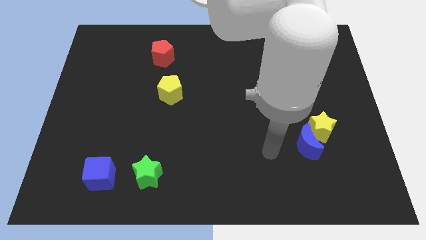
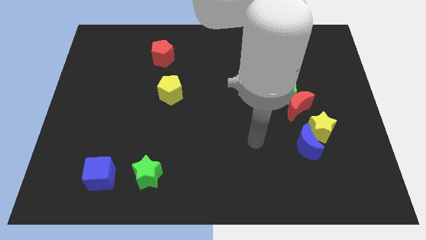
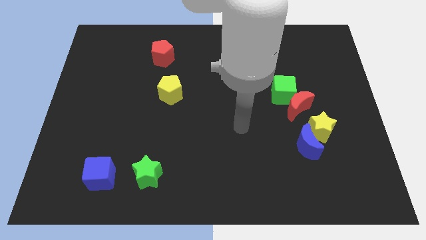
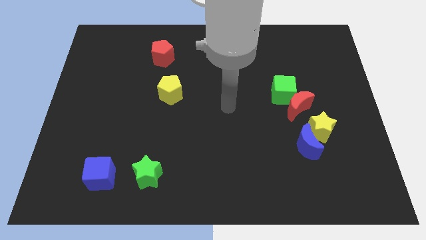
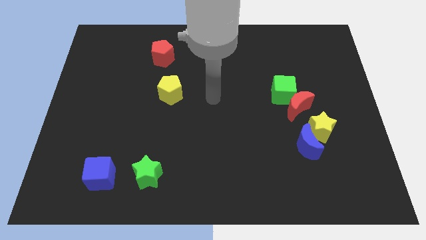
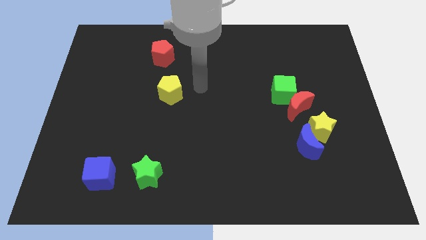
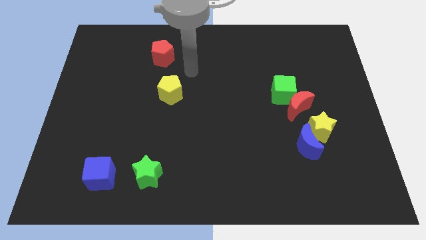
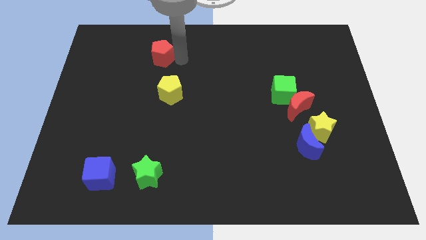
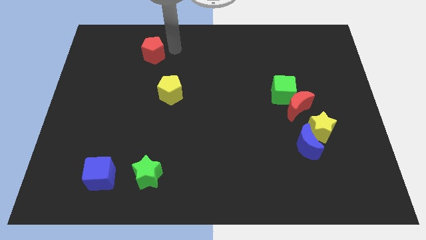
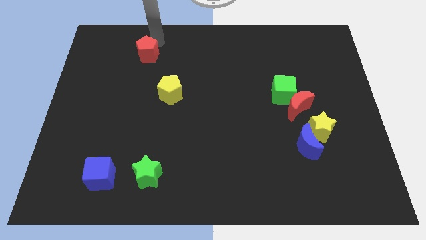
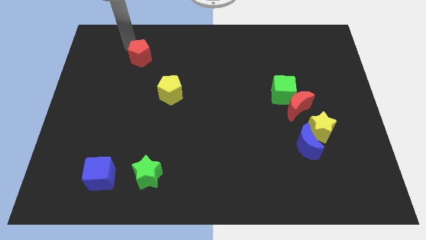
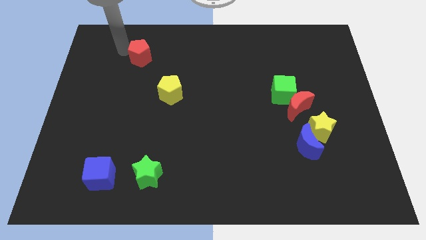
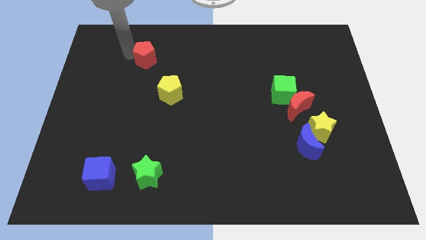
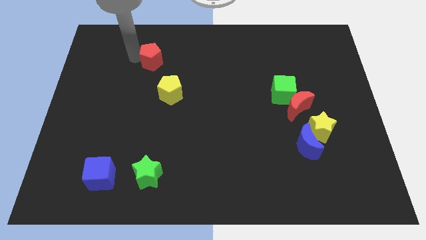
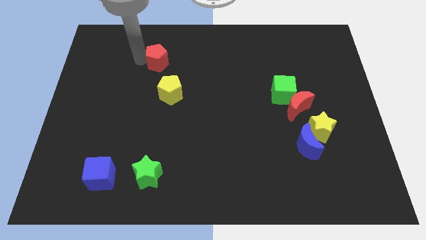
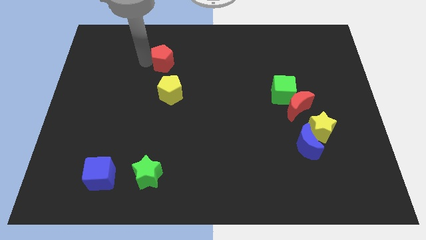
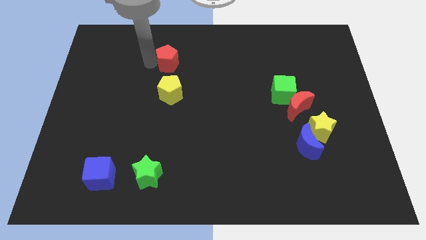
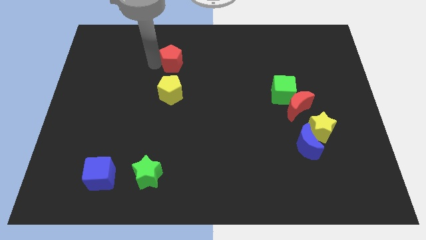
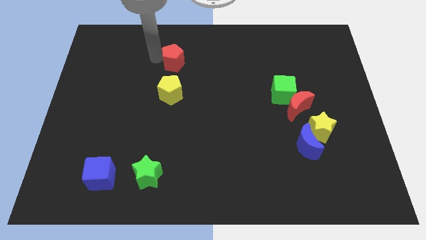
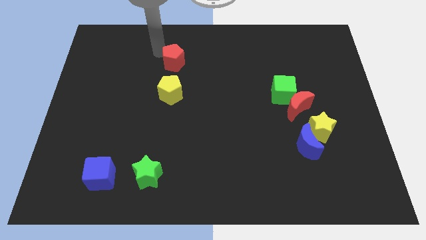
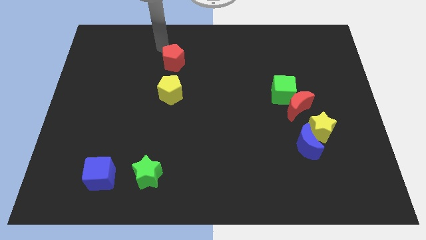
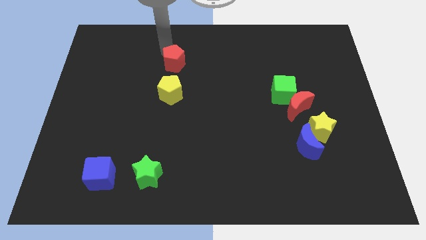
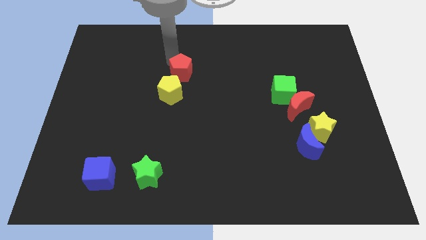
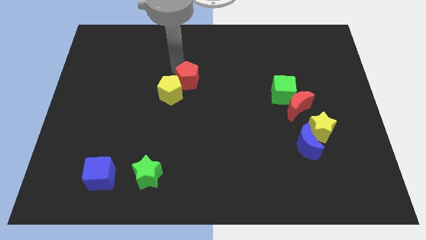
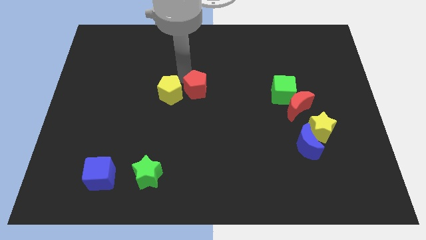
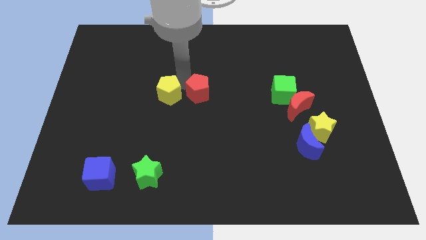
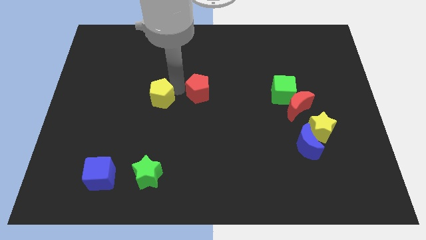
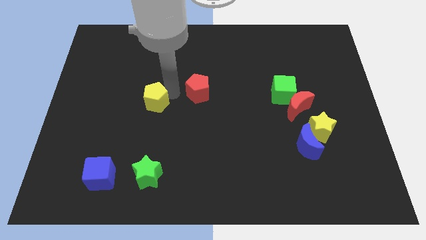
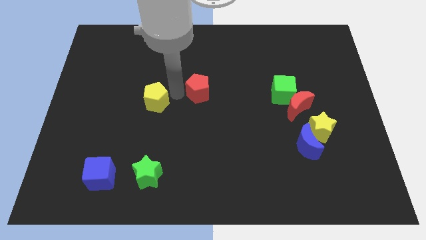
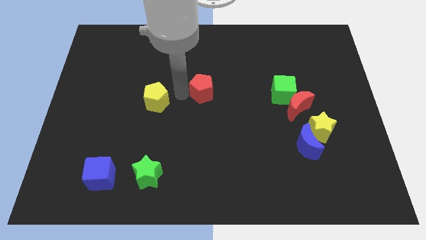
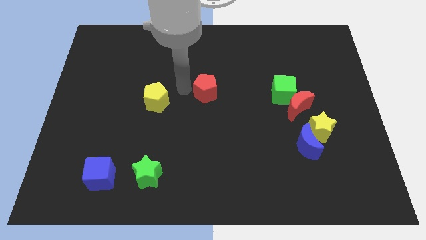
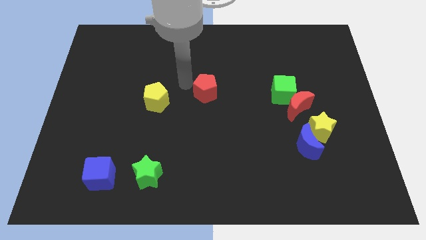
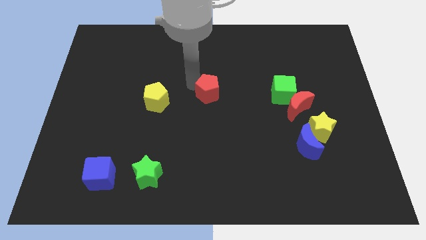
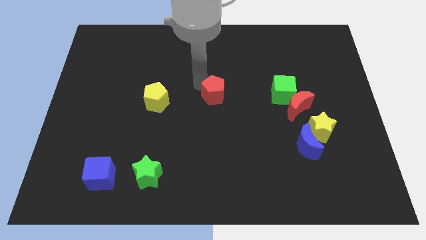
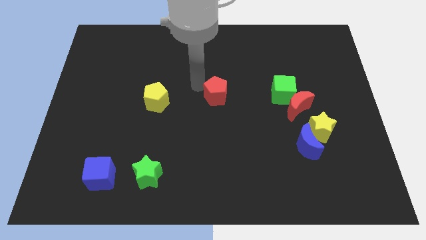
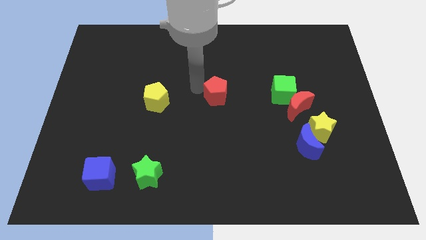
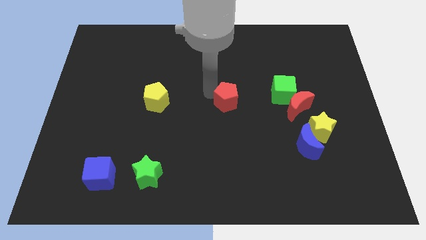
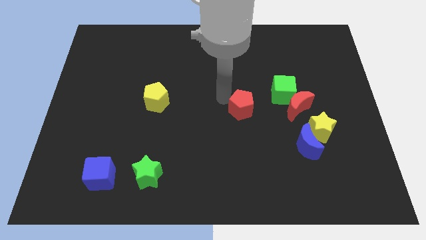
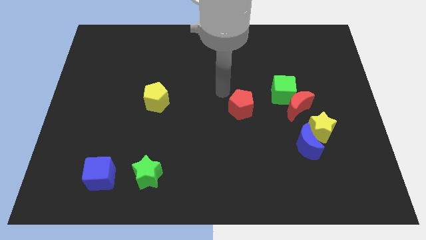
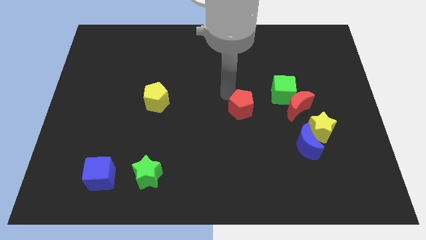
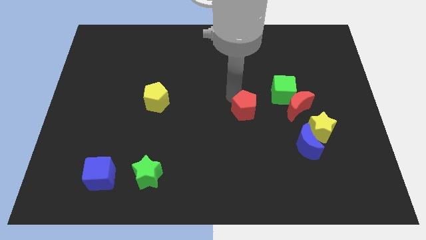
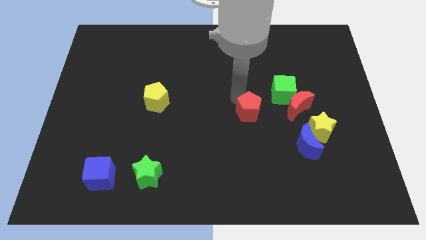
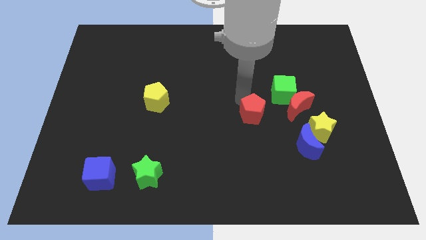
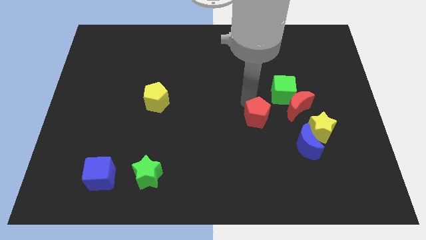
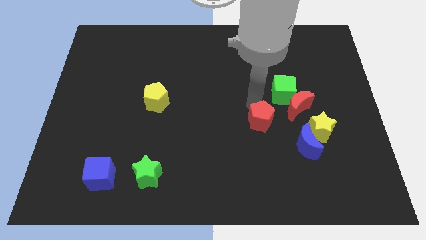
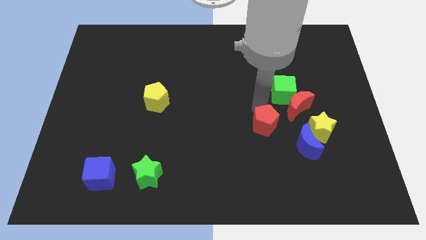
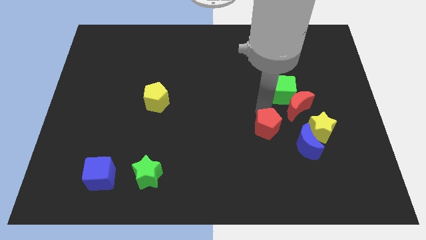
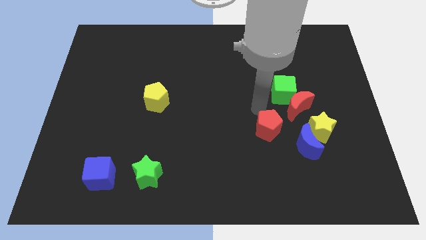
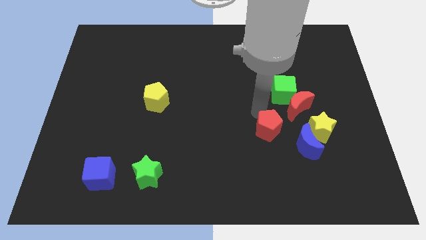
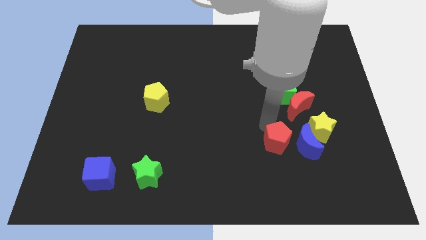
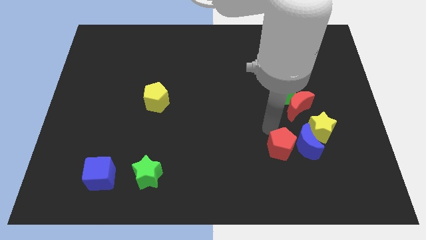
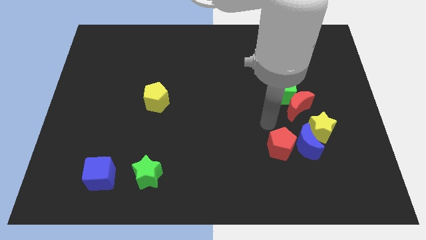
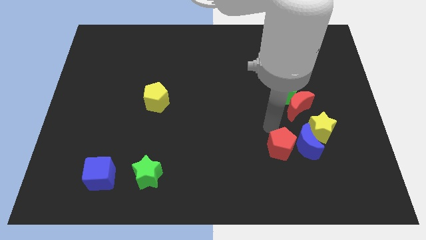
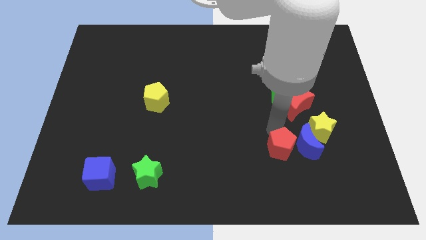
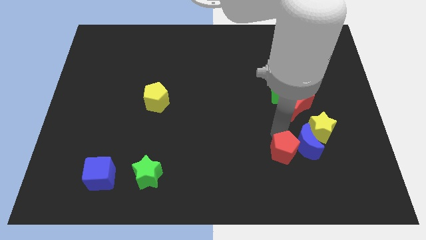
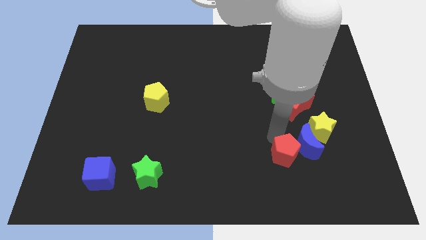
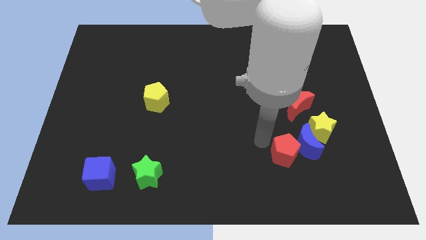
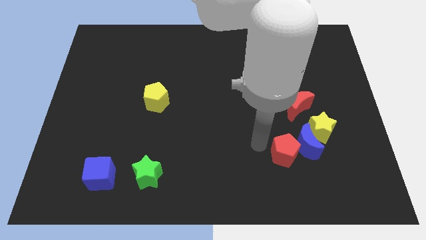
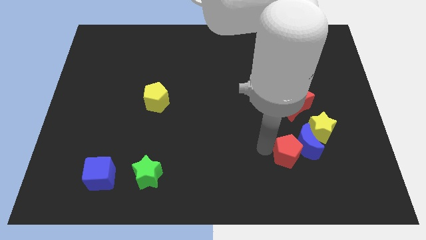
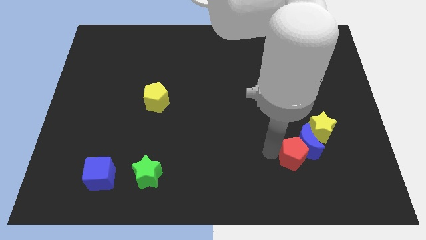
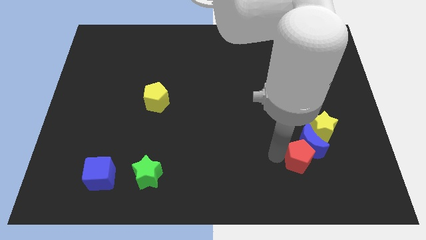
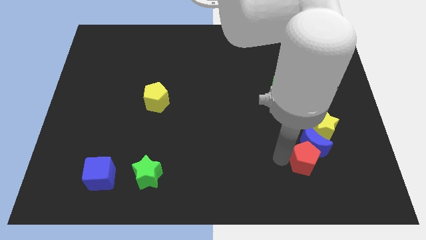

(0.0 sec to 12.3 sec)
push the red pentagon to the bottom right of the blue moon
